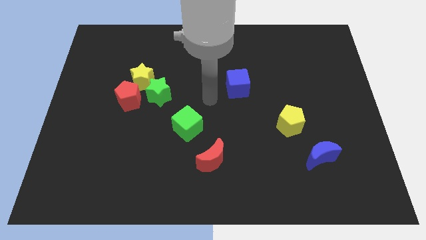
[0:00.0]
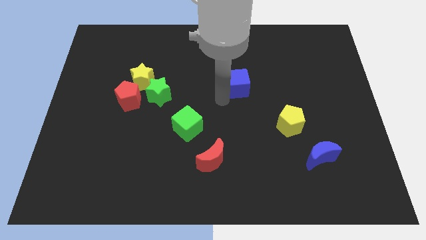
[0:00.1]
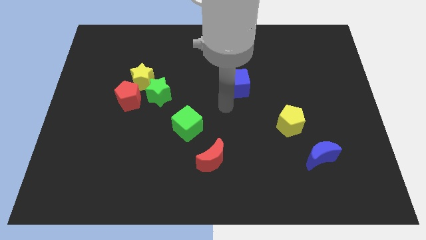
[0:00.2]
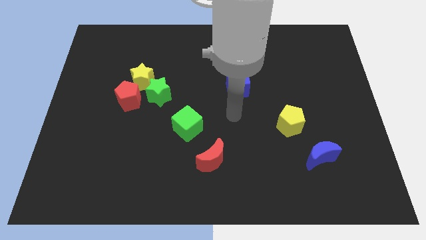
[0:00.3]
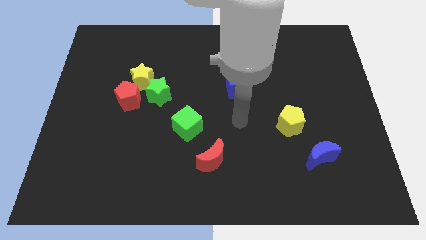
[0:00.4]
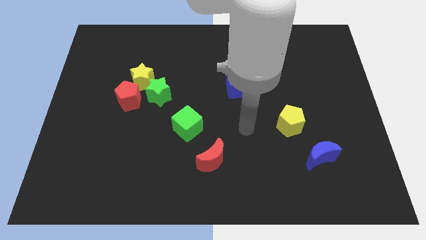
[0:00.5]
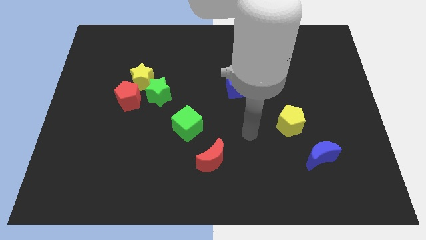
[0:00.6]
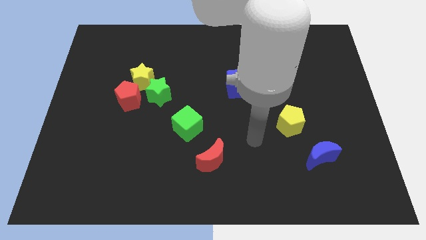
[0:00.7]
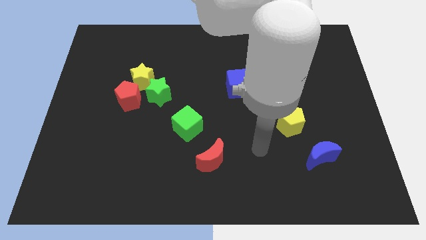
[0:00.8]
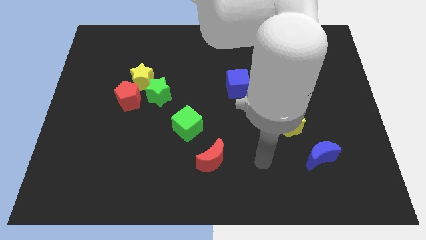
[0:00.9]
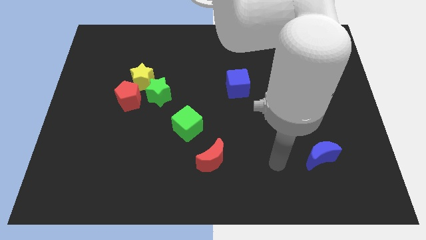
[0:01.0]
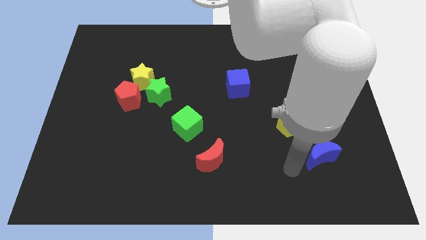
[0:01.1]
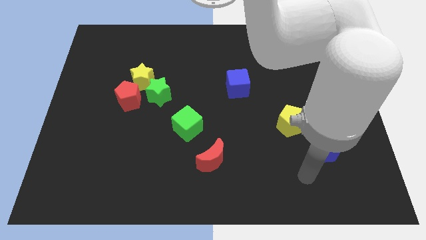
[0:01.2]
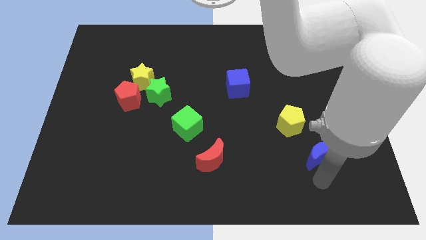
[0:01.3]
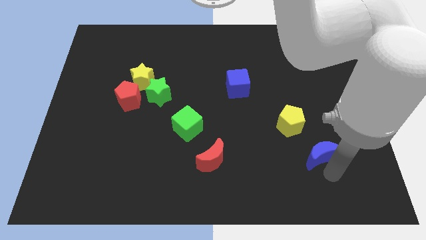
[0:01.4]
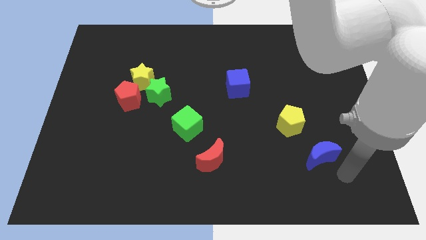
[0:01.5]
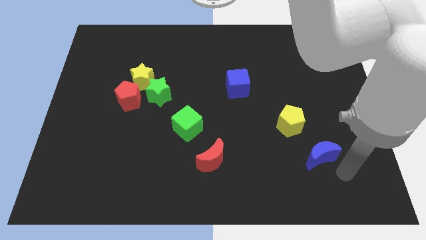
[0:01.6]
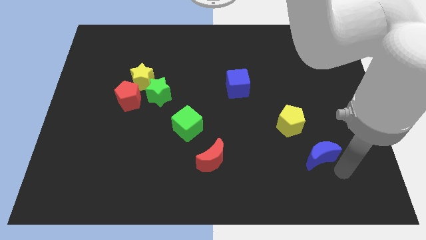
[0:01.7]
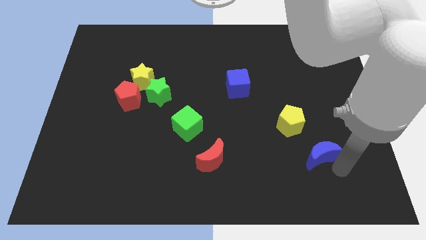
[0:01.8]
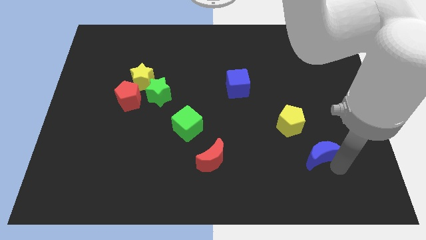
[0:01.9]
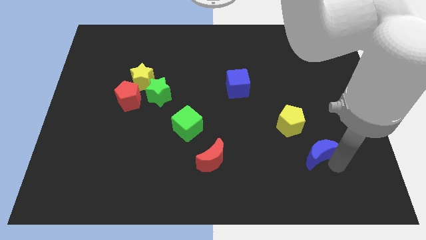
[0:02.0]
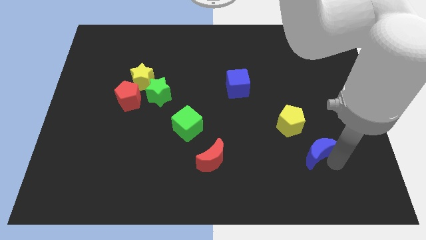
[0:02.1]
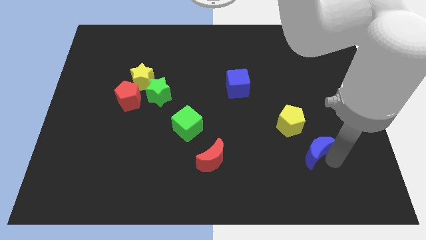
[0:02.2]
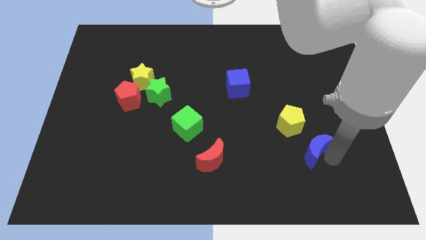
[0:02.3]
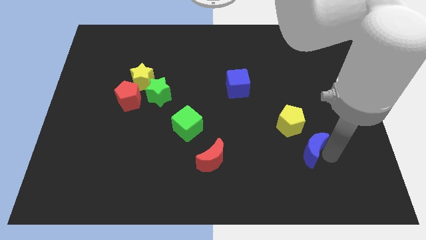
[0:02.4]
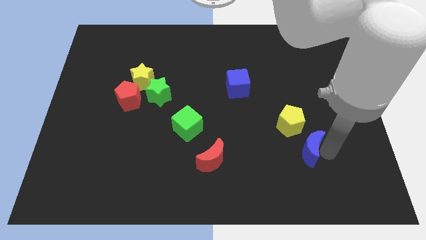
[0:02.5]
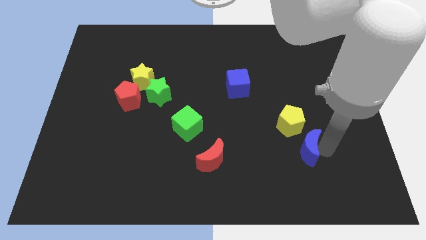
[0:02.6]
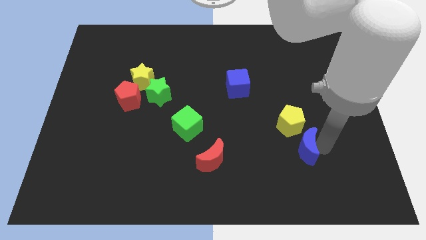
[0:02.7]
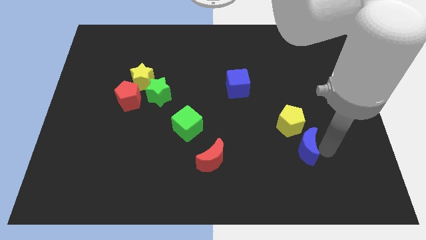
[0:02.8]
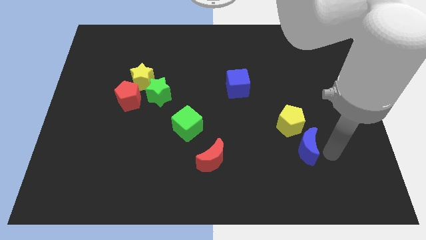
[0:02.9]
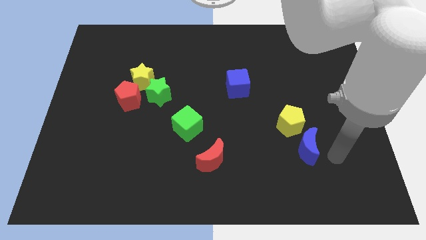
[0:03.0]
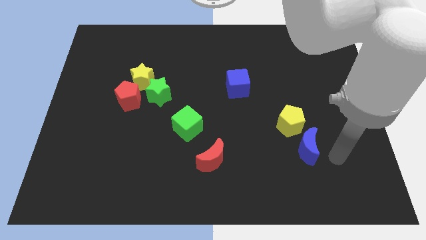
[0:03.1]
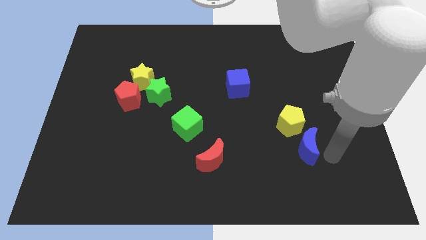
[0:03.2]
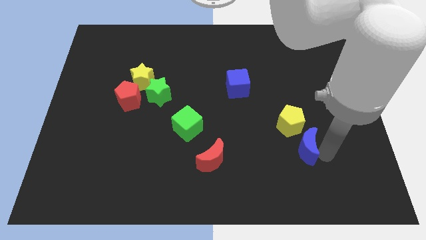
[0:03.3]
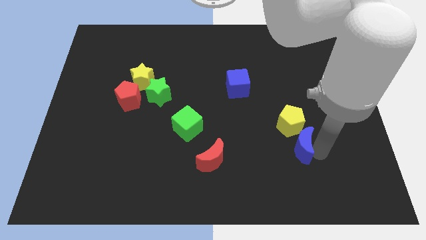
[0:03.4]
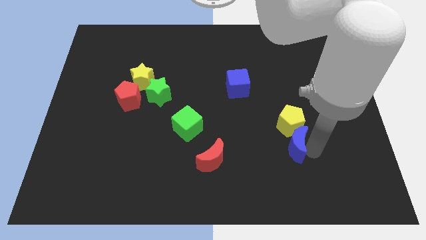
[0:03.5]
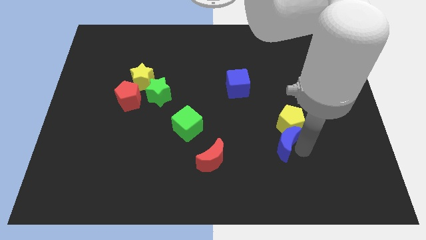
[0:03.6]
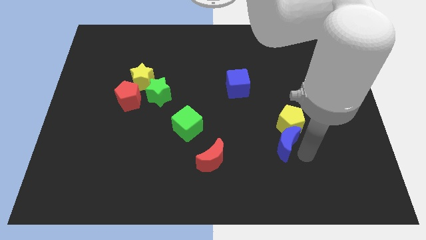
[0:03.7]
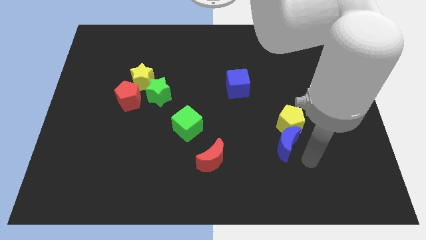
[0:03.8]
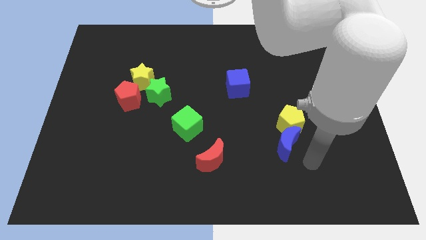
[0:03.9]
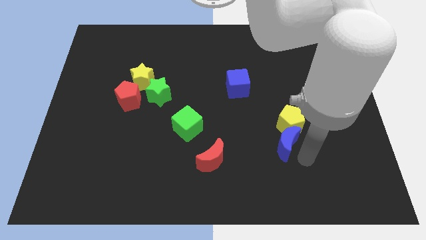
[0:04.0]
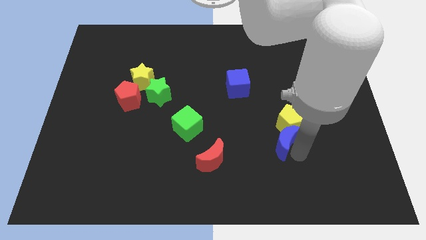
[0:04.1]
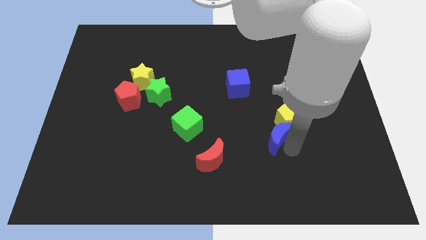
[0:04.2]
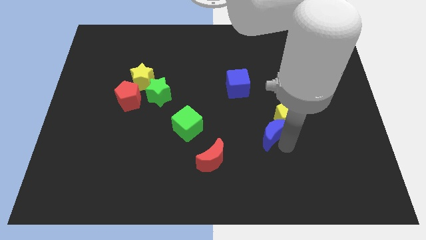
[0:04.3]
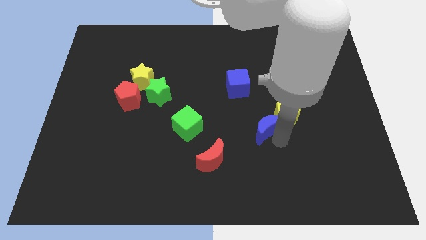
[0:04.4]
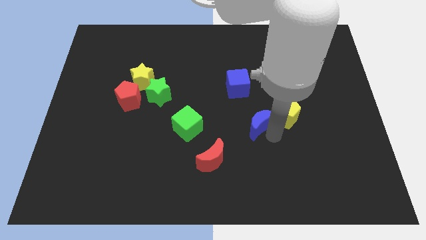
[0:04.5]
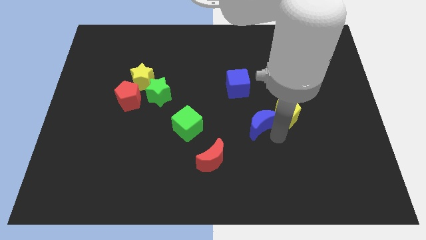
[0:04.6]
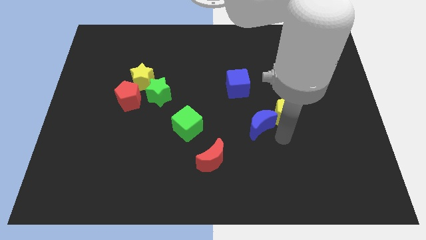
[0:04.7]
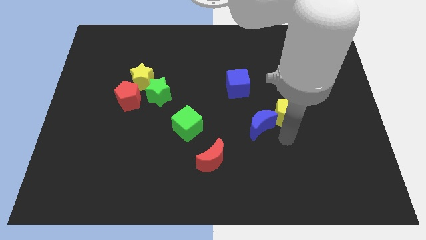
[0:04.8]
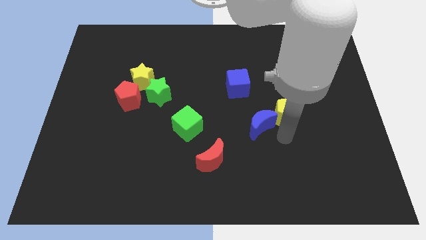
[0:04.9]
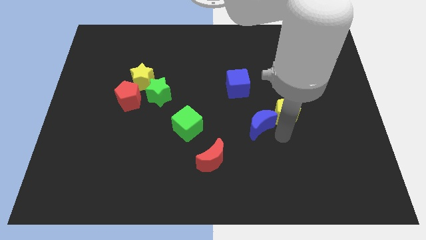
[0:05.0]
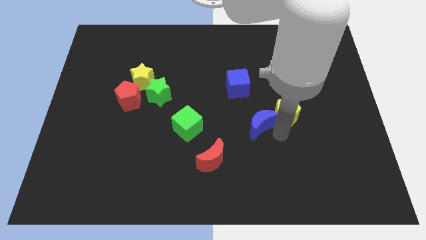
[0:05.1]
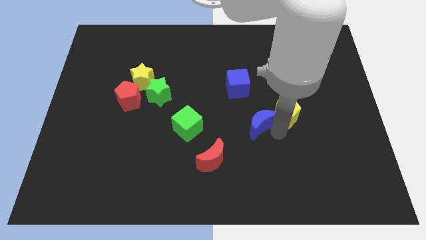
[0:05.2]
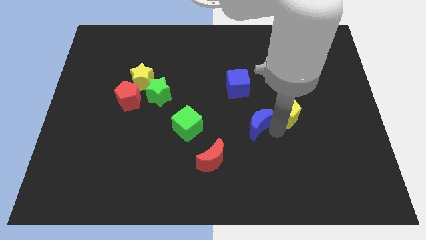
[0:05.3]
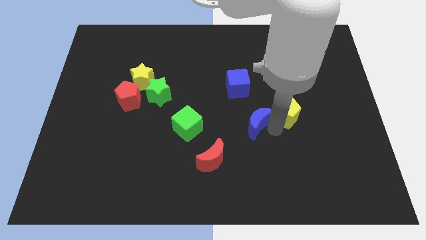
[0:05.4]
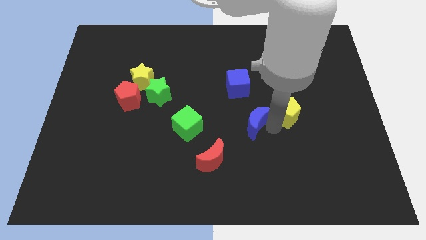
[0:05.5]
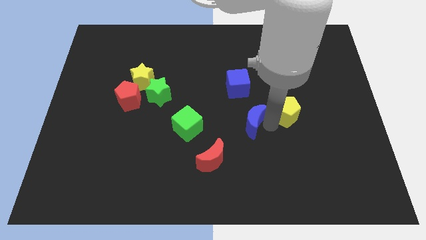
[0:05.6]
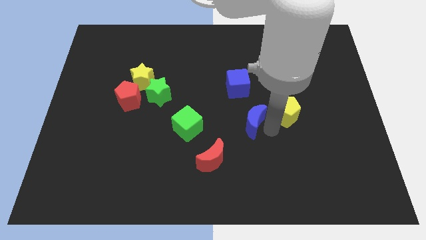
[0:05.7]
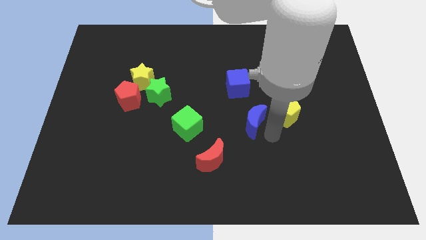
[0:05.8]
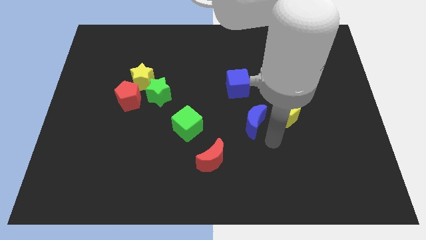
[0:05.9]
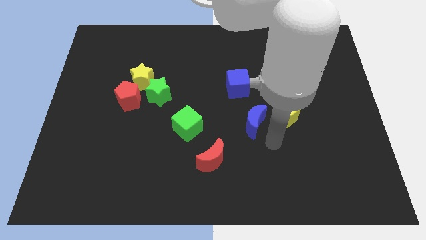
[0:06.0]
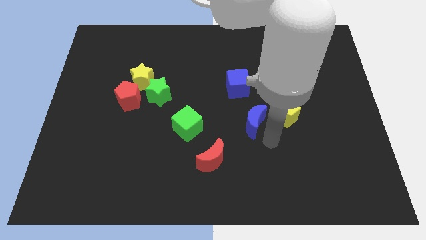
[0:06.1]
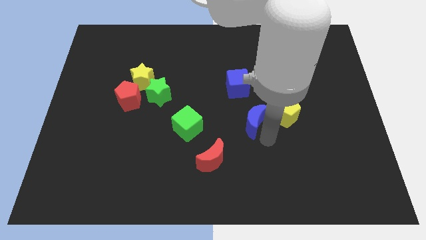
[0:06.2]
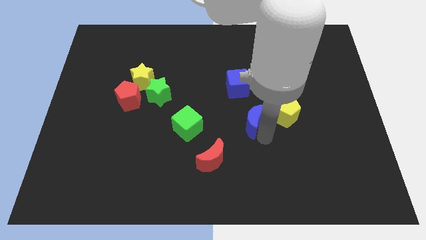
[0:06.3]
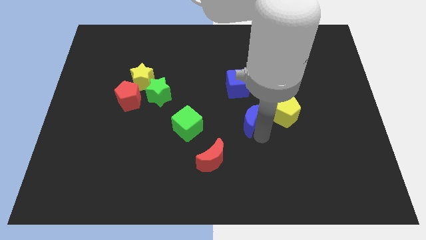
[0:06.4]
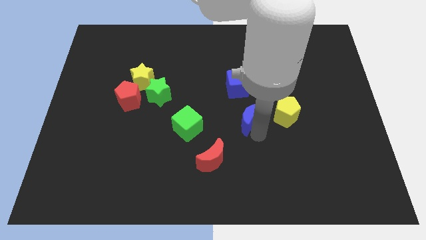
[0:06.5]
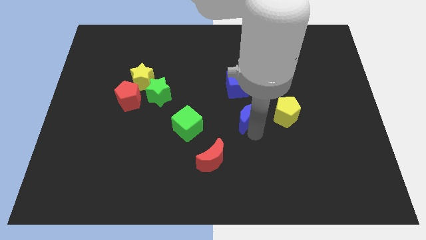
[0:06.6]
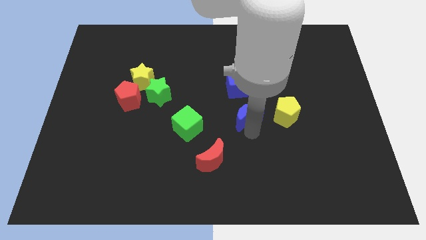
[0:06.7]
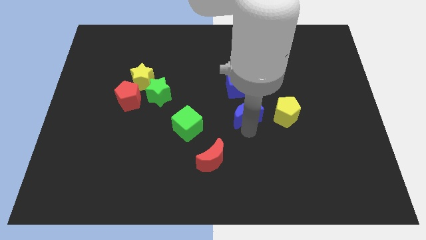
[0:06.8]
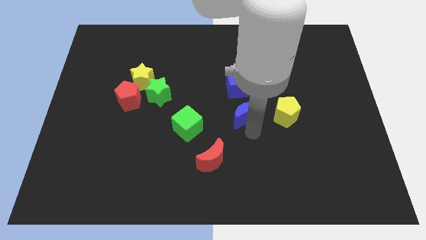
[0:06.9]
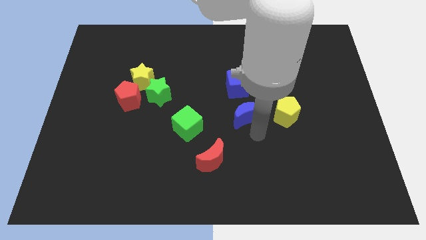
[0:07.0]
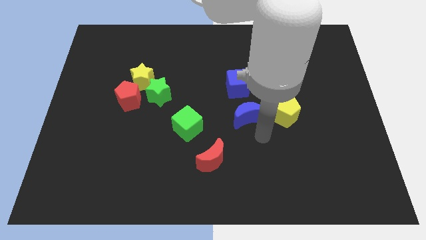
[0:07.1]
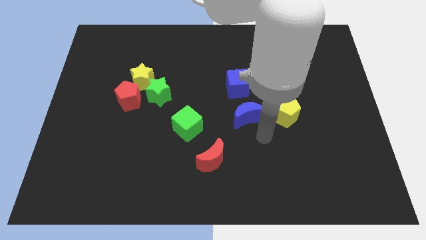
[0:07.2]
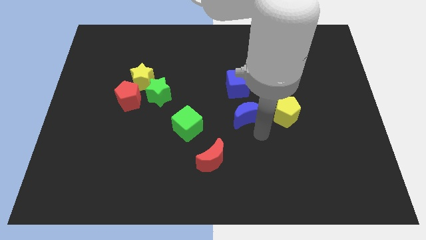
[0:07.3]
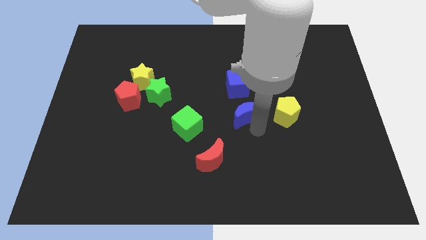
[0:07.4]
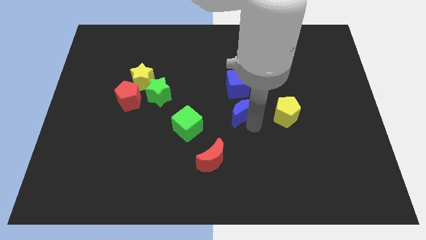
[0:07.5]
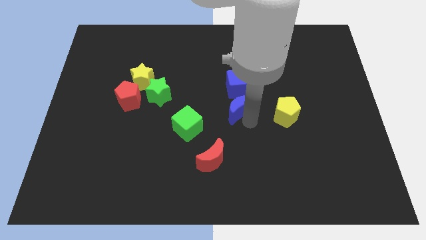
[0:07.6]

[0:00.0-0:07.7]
move the blue moon up and to the left diagonally
